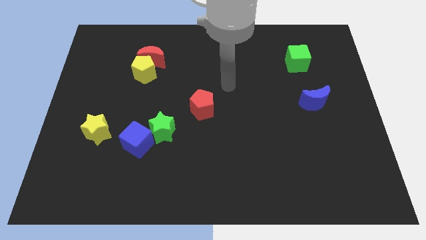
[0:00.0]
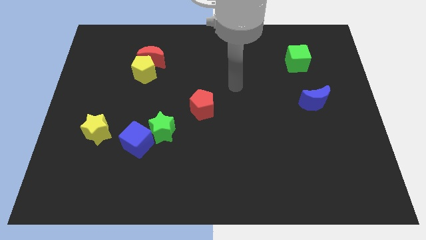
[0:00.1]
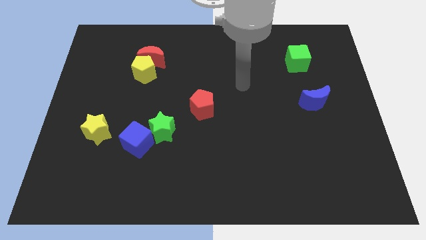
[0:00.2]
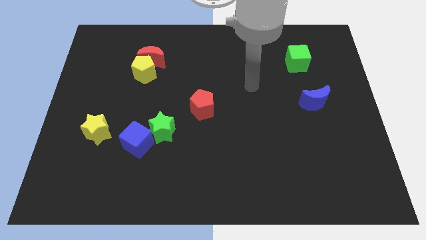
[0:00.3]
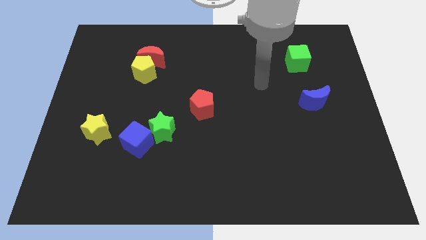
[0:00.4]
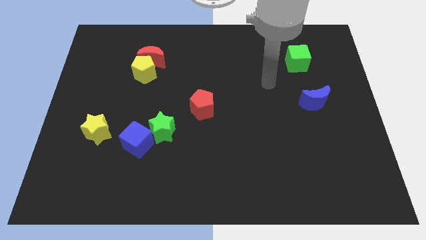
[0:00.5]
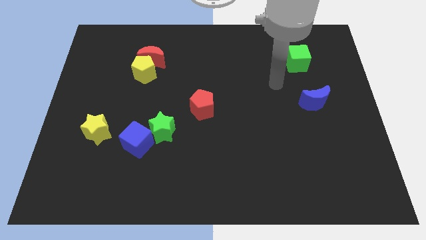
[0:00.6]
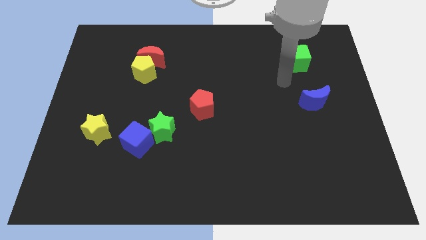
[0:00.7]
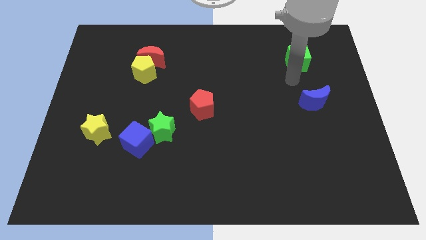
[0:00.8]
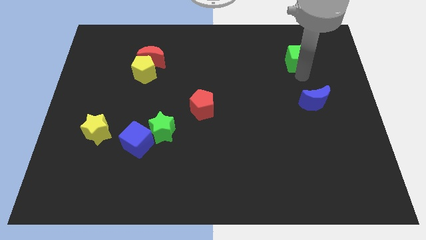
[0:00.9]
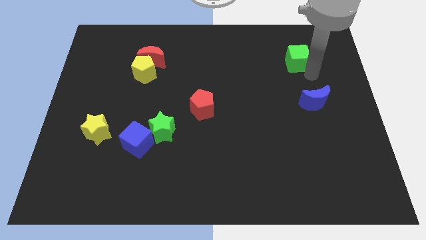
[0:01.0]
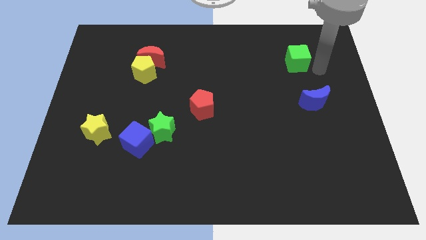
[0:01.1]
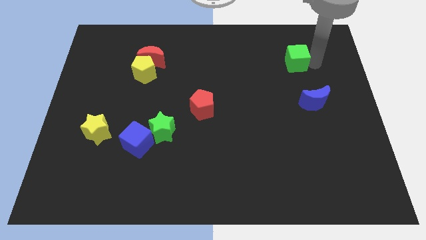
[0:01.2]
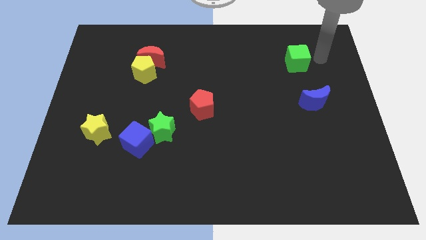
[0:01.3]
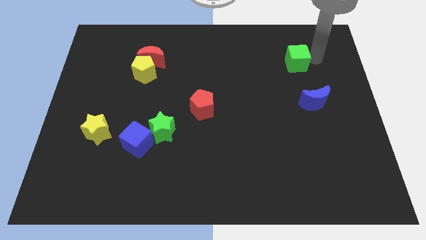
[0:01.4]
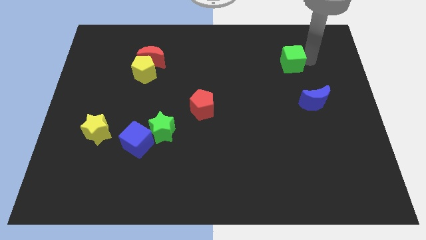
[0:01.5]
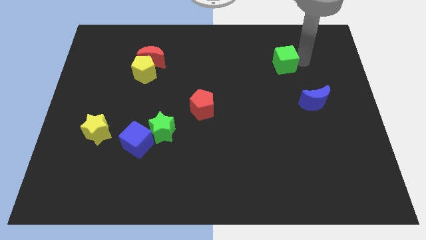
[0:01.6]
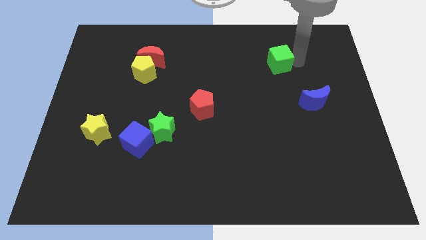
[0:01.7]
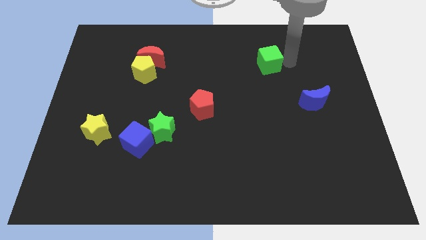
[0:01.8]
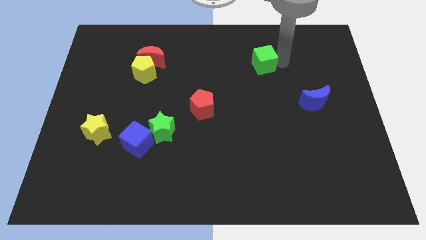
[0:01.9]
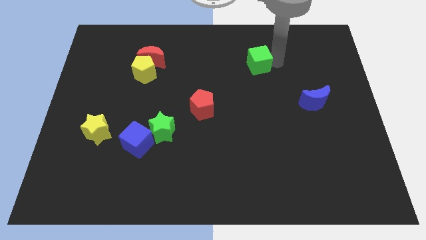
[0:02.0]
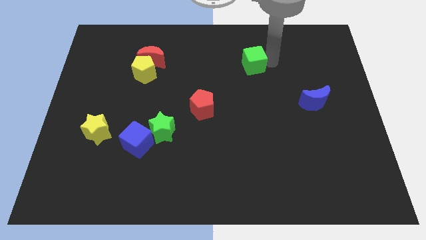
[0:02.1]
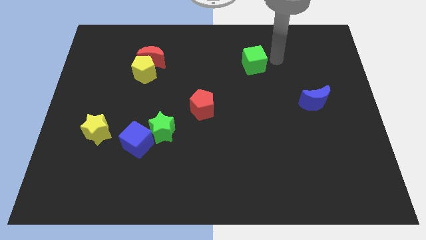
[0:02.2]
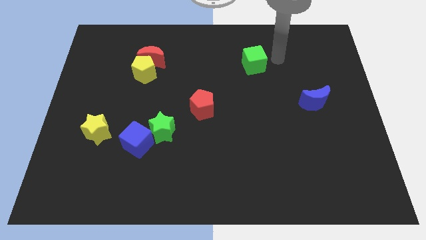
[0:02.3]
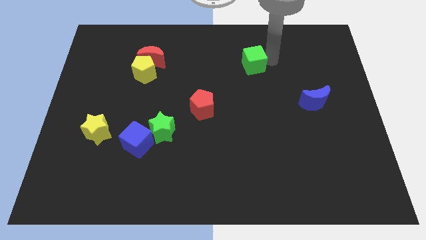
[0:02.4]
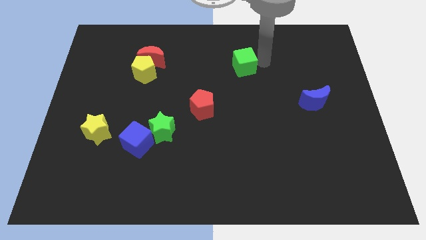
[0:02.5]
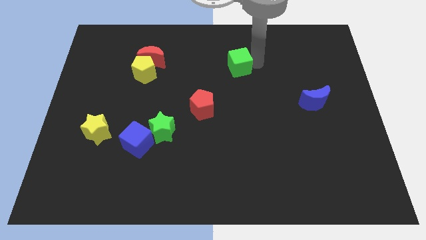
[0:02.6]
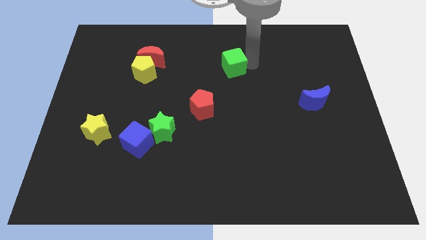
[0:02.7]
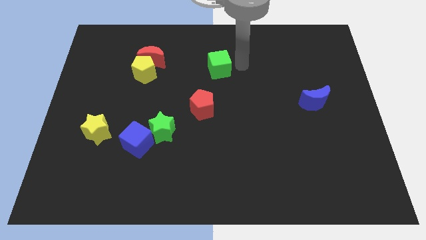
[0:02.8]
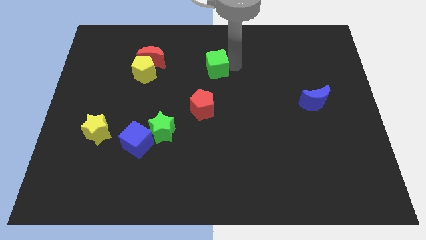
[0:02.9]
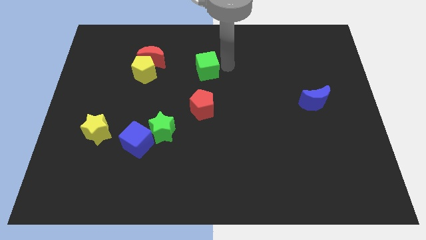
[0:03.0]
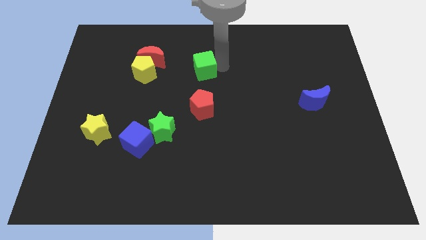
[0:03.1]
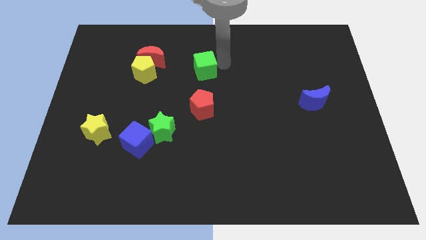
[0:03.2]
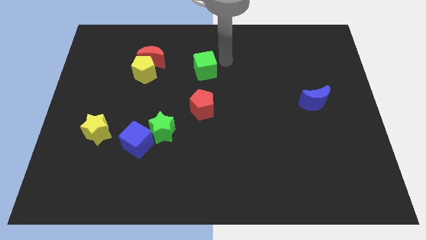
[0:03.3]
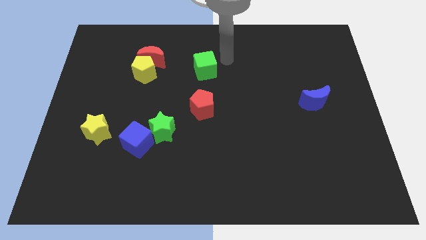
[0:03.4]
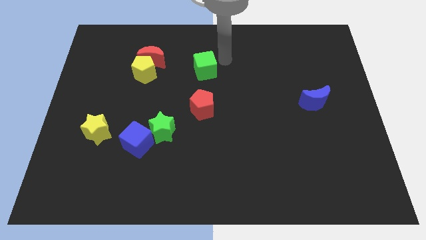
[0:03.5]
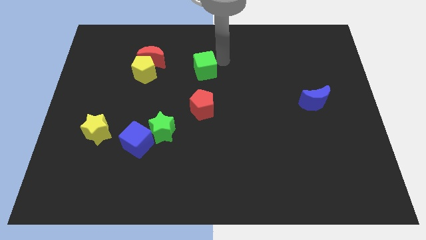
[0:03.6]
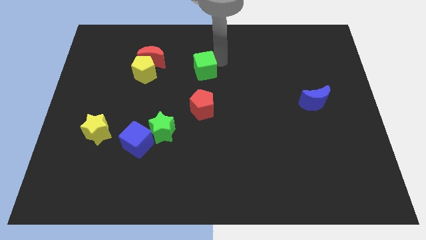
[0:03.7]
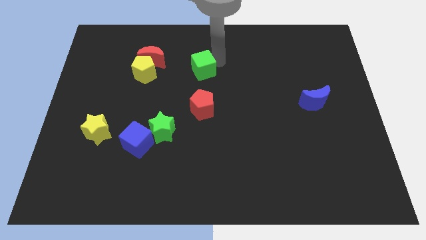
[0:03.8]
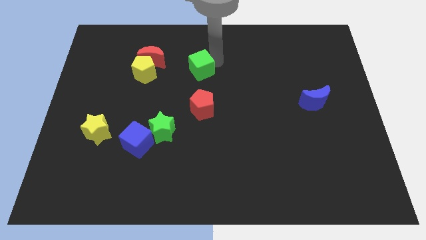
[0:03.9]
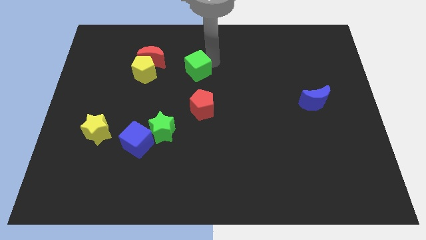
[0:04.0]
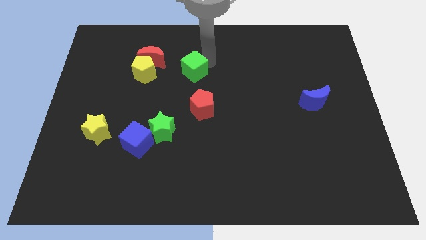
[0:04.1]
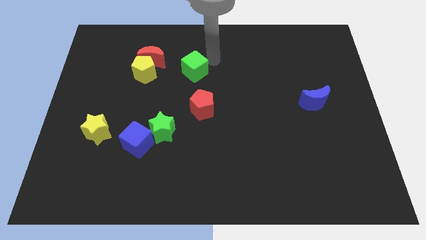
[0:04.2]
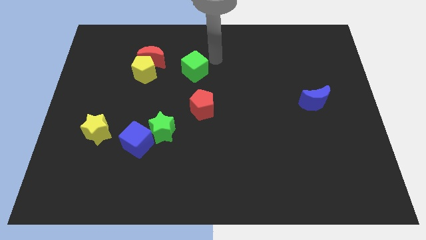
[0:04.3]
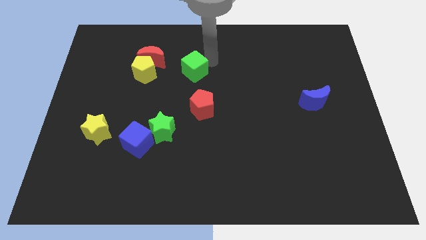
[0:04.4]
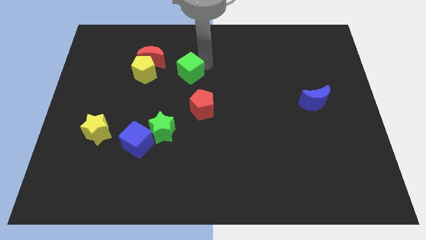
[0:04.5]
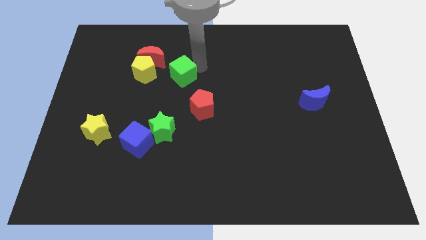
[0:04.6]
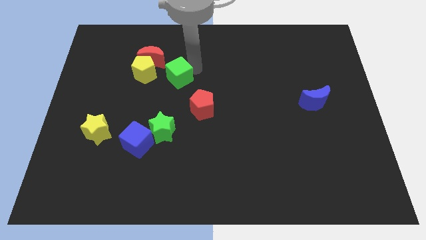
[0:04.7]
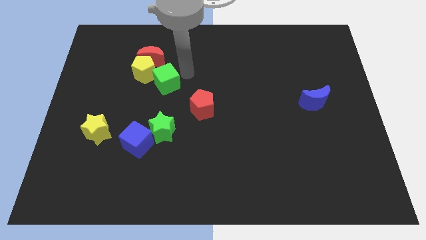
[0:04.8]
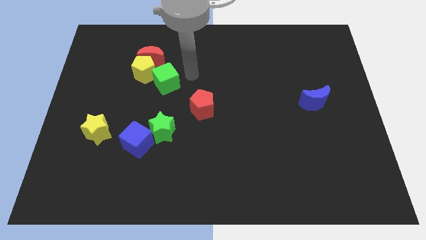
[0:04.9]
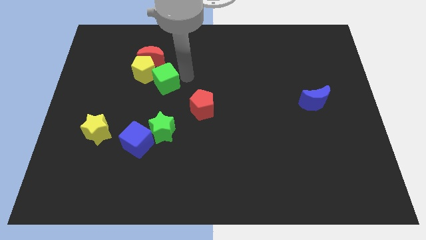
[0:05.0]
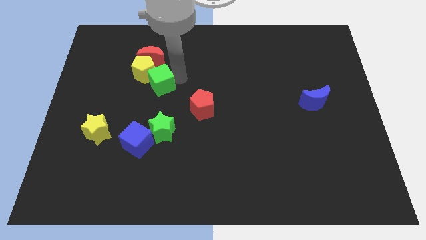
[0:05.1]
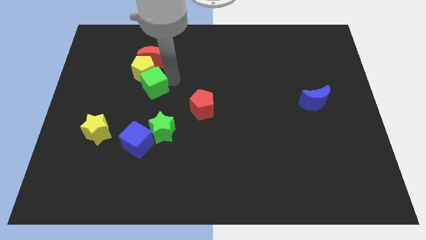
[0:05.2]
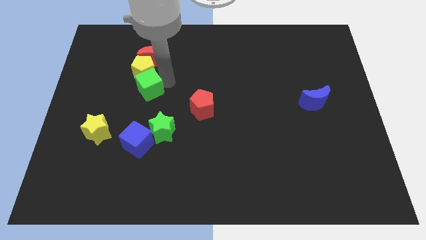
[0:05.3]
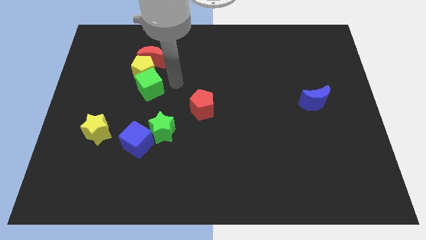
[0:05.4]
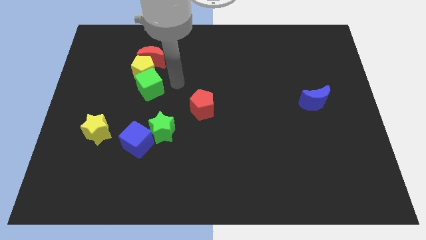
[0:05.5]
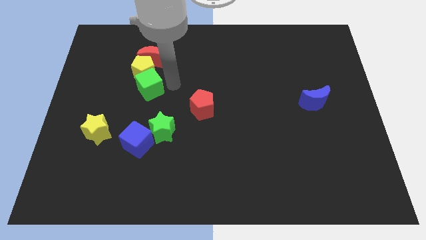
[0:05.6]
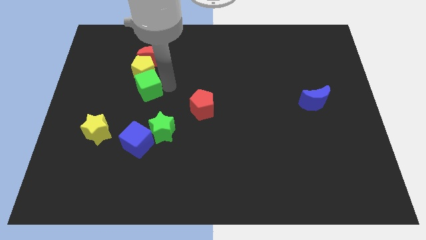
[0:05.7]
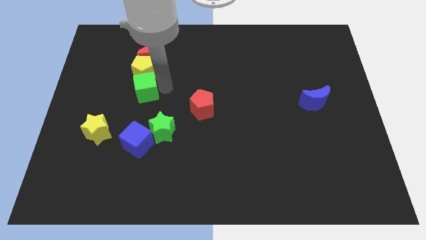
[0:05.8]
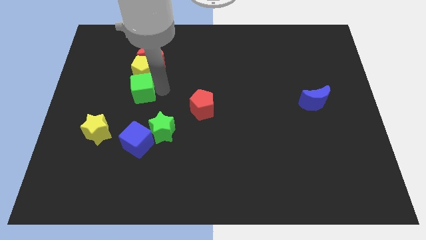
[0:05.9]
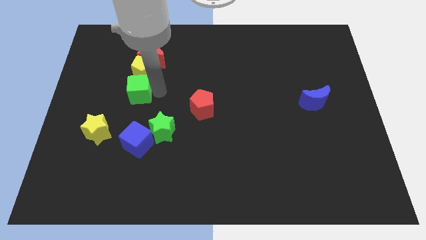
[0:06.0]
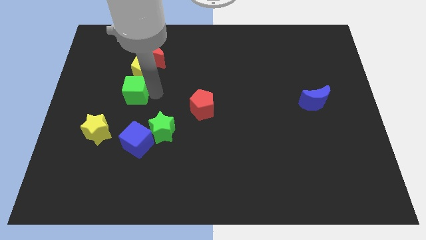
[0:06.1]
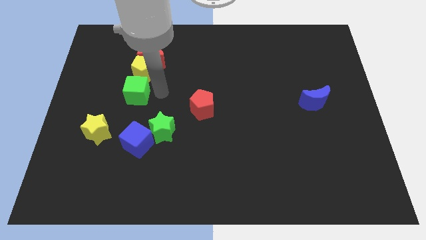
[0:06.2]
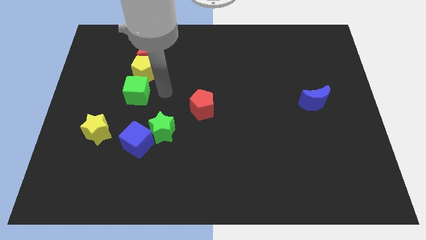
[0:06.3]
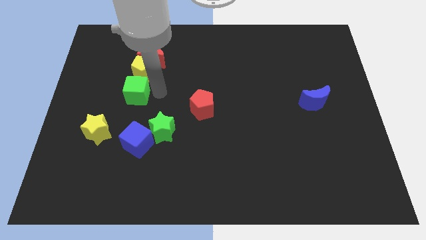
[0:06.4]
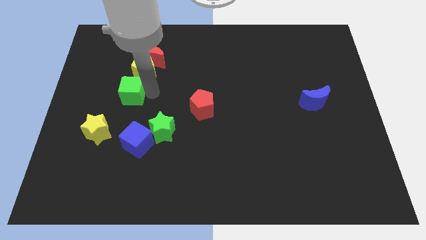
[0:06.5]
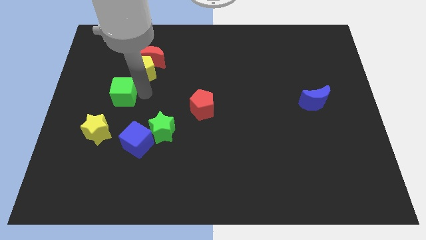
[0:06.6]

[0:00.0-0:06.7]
push the green cube above the yellow star
